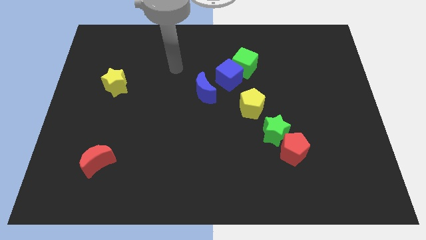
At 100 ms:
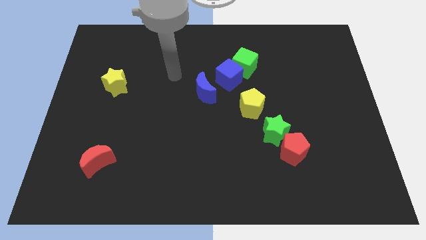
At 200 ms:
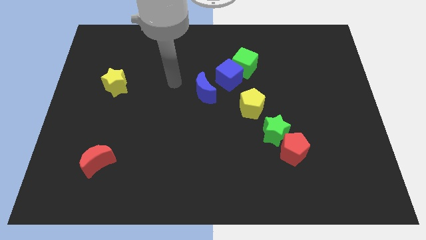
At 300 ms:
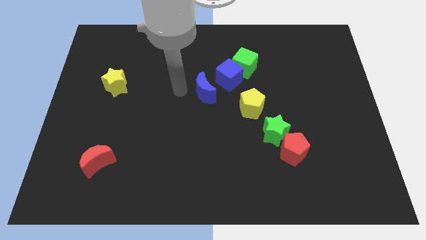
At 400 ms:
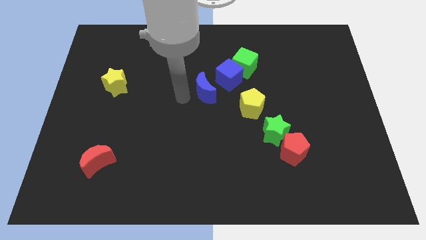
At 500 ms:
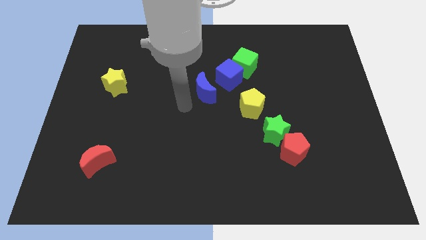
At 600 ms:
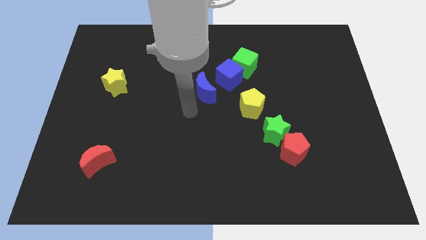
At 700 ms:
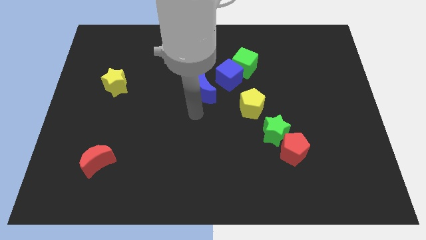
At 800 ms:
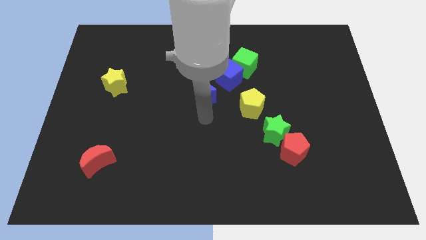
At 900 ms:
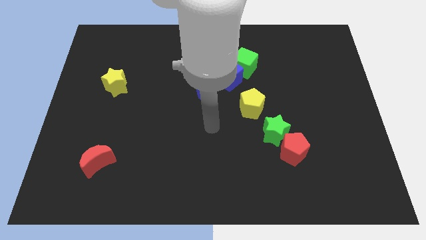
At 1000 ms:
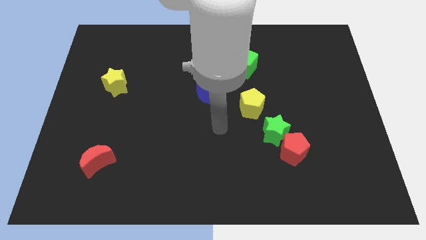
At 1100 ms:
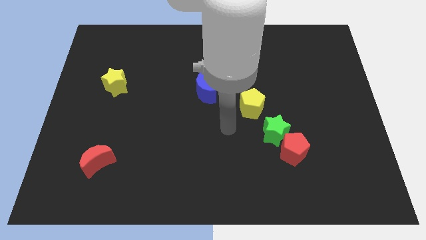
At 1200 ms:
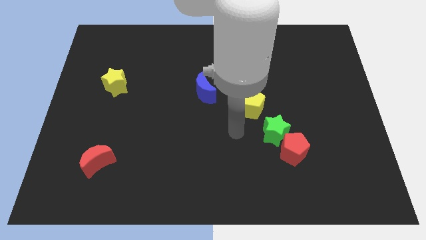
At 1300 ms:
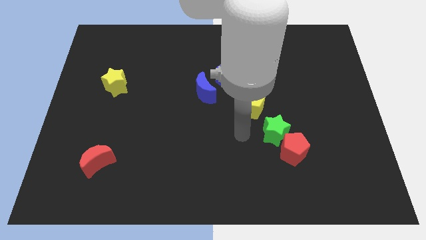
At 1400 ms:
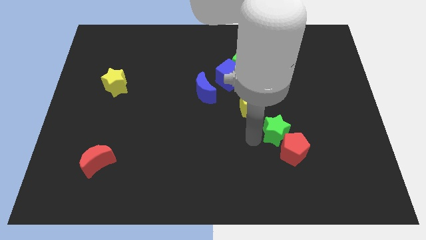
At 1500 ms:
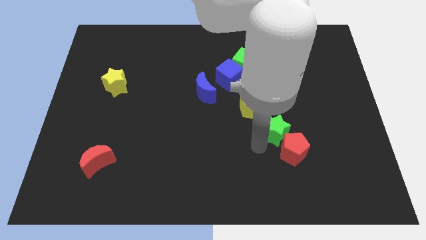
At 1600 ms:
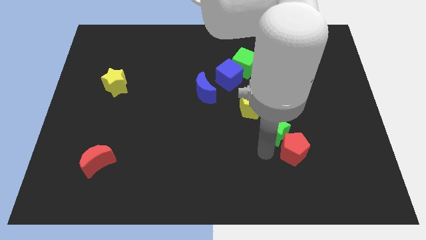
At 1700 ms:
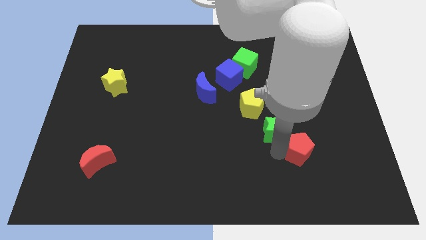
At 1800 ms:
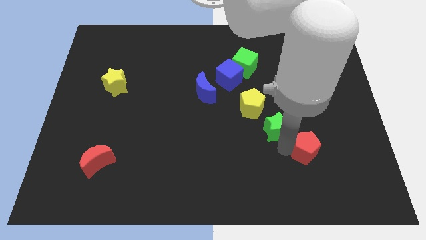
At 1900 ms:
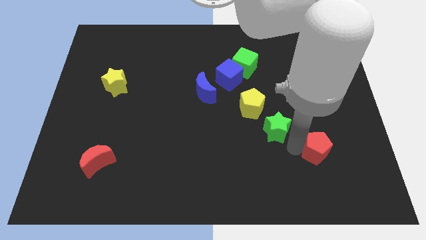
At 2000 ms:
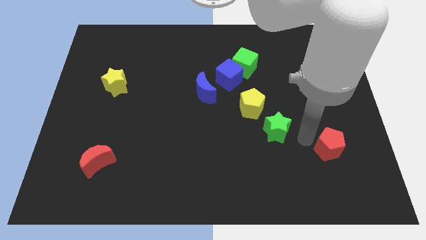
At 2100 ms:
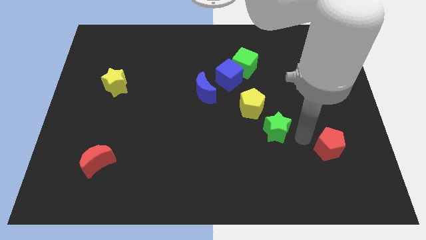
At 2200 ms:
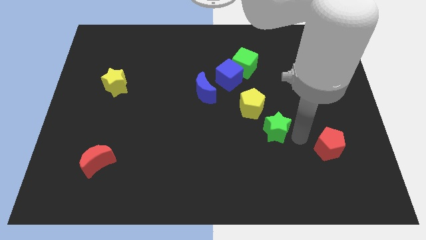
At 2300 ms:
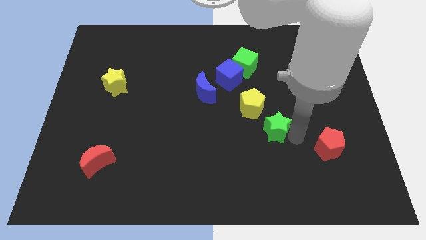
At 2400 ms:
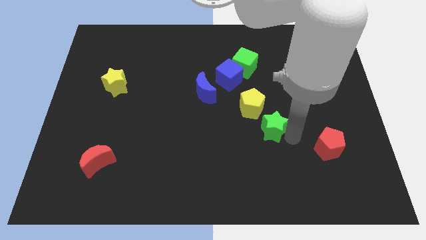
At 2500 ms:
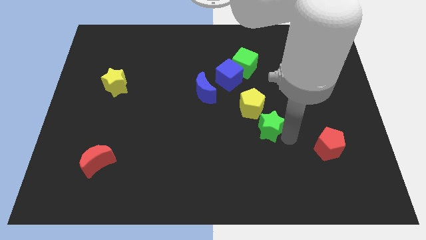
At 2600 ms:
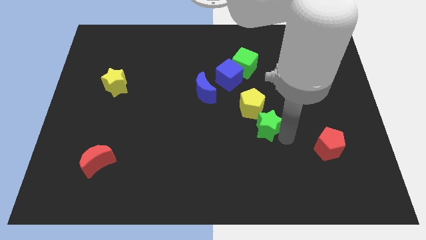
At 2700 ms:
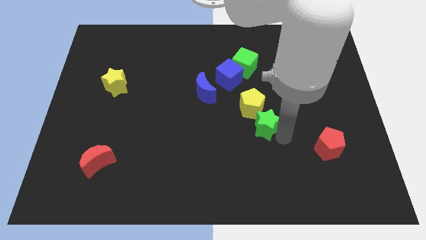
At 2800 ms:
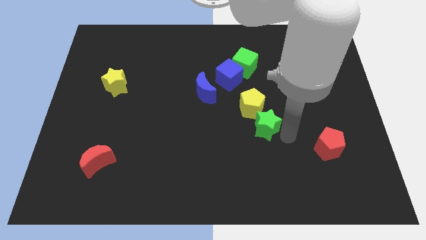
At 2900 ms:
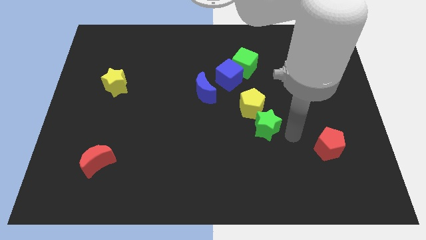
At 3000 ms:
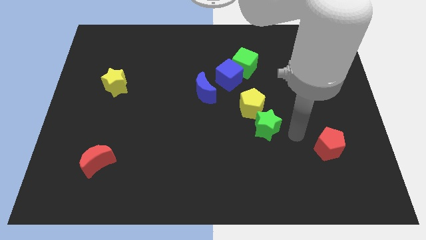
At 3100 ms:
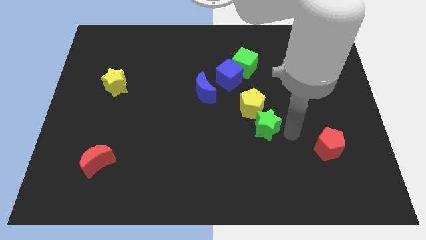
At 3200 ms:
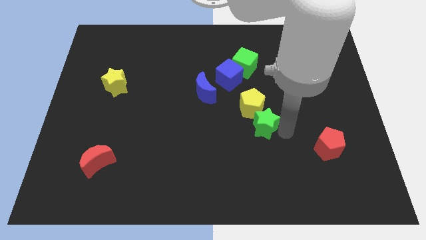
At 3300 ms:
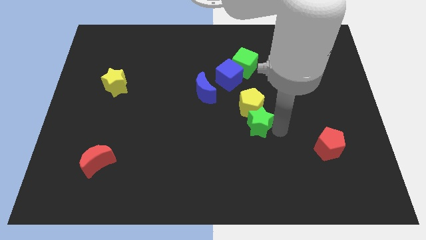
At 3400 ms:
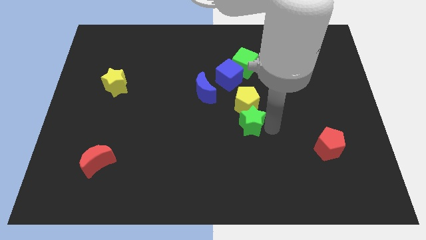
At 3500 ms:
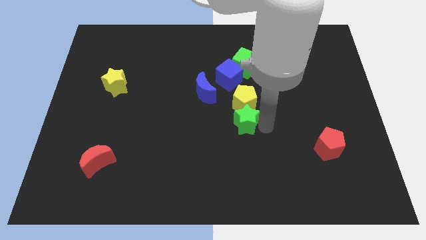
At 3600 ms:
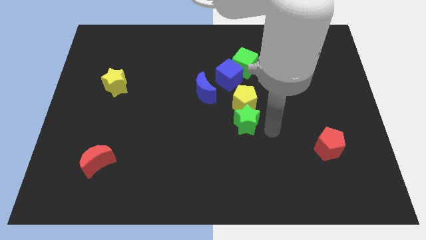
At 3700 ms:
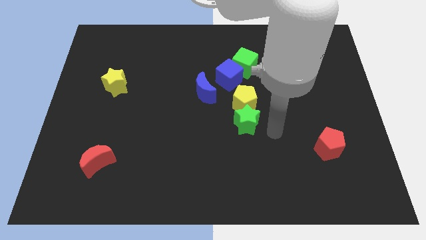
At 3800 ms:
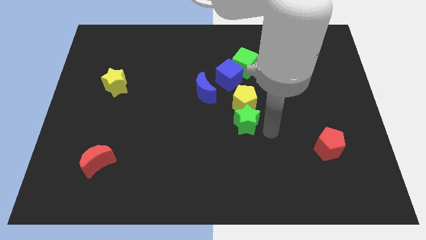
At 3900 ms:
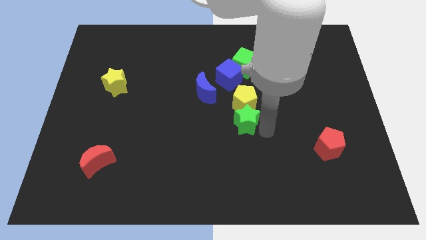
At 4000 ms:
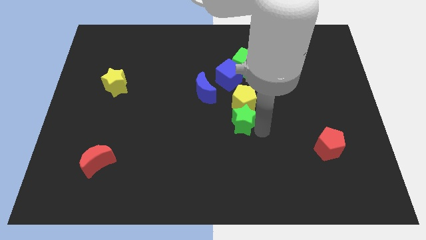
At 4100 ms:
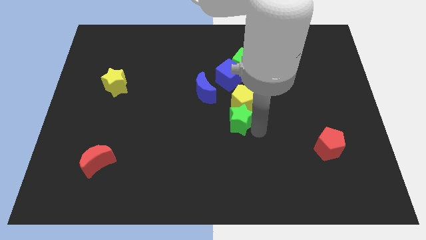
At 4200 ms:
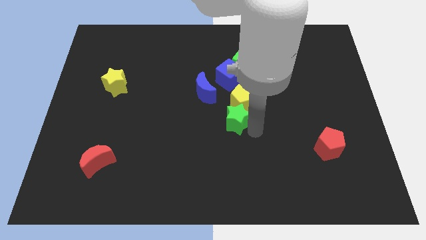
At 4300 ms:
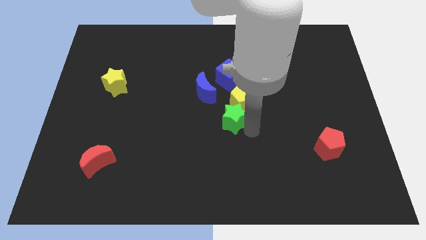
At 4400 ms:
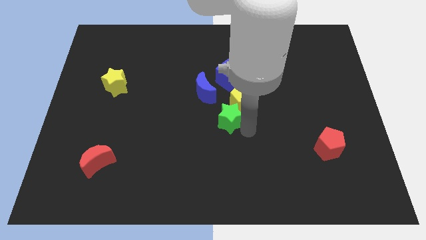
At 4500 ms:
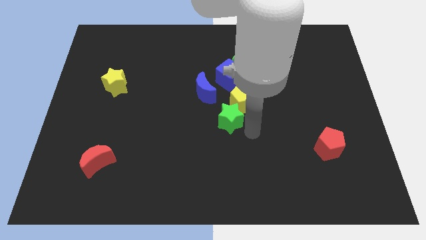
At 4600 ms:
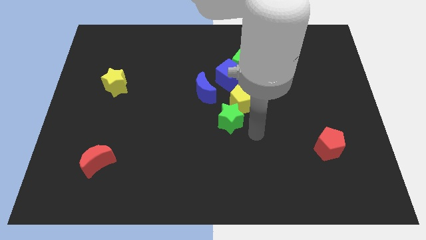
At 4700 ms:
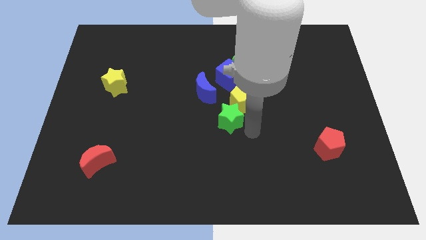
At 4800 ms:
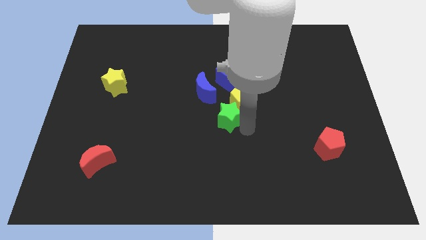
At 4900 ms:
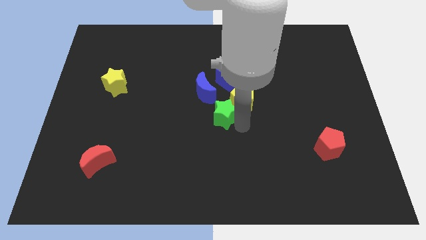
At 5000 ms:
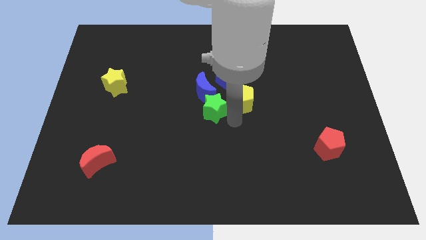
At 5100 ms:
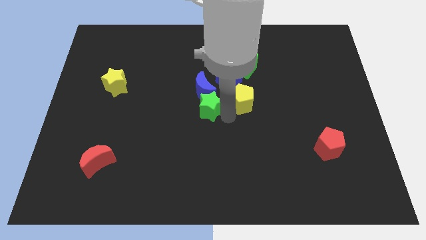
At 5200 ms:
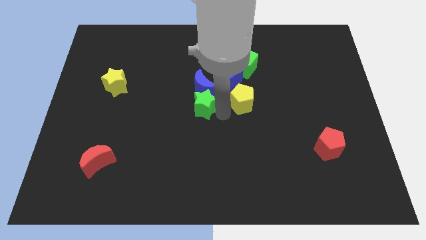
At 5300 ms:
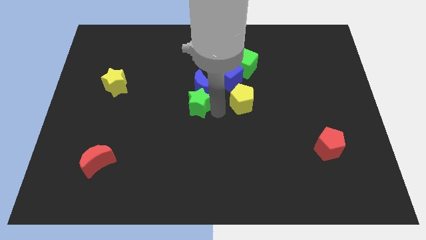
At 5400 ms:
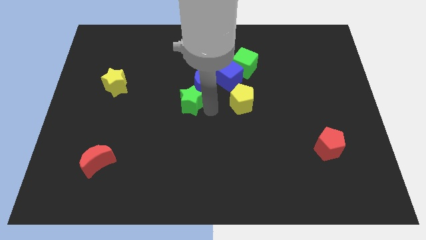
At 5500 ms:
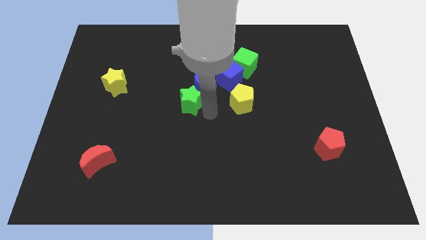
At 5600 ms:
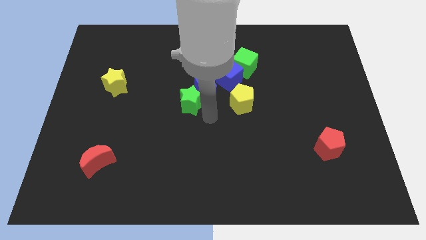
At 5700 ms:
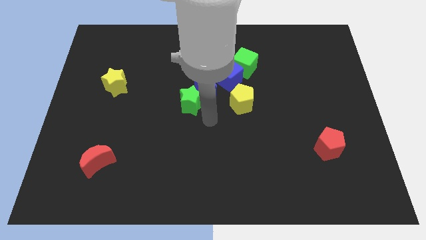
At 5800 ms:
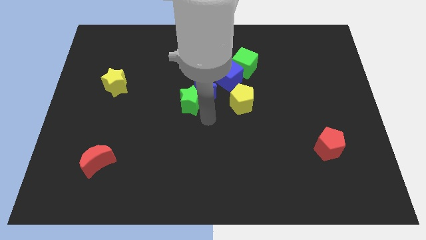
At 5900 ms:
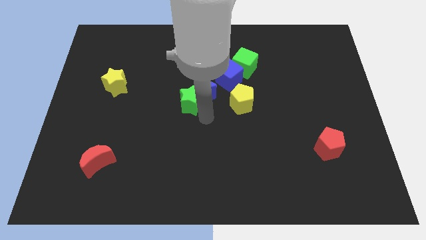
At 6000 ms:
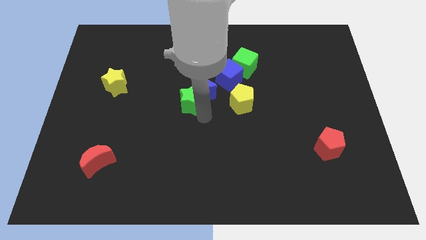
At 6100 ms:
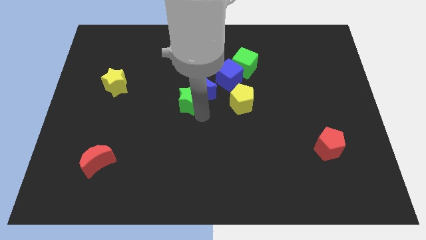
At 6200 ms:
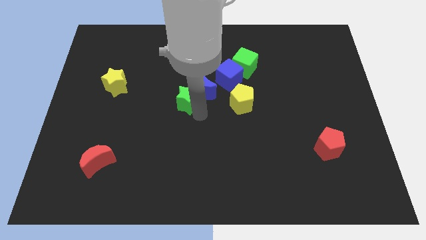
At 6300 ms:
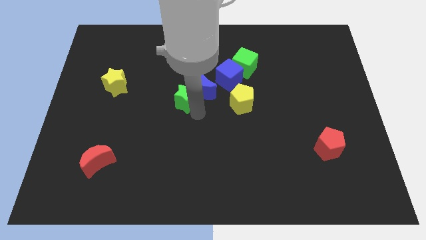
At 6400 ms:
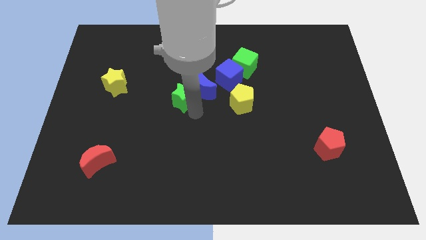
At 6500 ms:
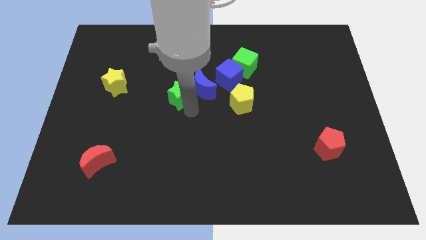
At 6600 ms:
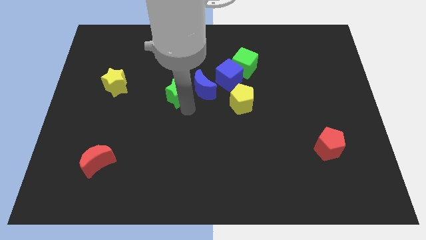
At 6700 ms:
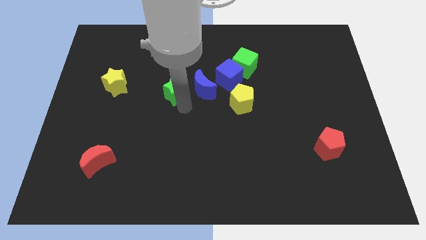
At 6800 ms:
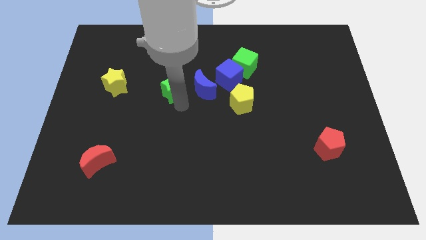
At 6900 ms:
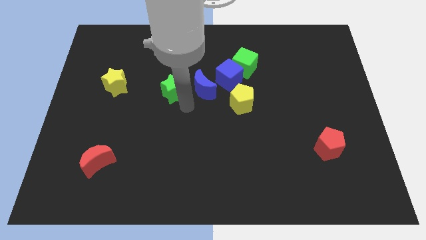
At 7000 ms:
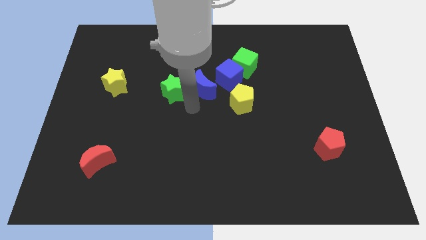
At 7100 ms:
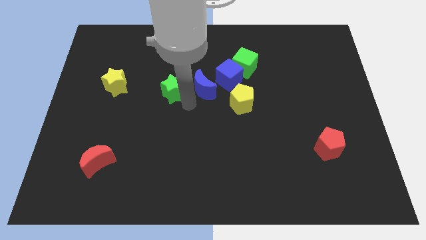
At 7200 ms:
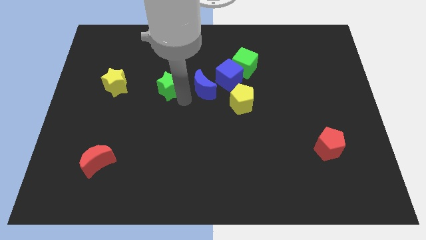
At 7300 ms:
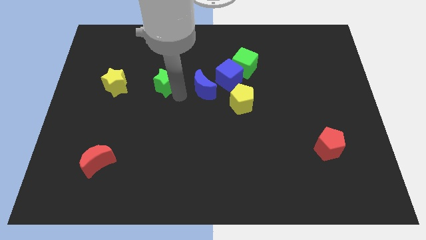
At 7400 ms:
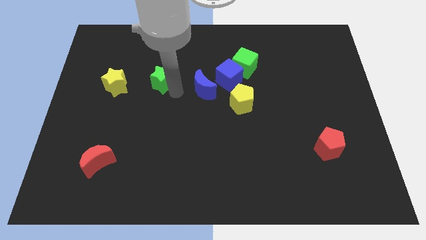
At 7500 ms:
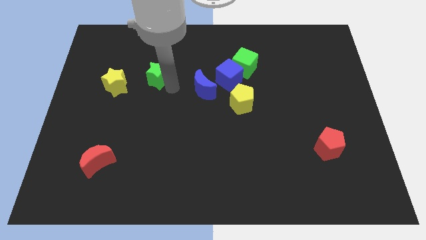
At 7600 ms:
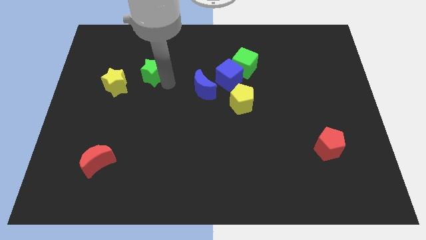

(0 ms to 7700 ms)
move the green star to the top right side of the yellow star

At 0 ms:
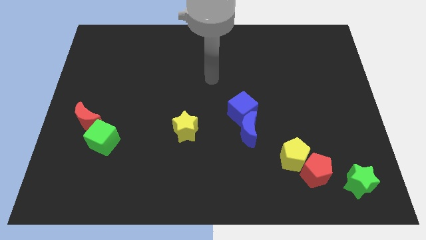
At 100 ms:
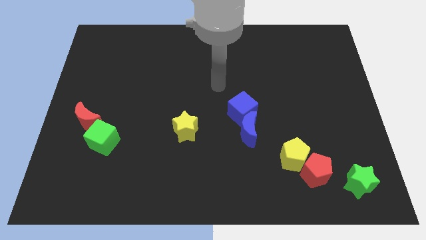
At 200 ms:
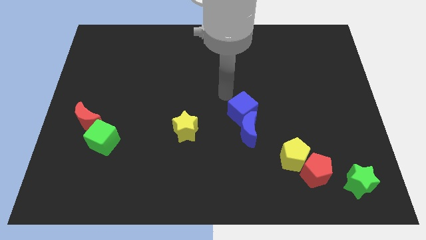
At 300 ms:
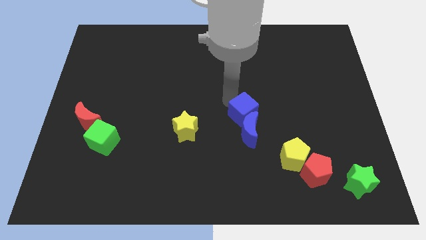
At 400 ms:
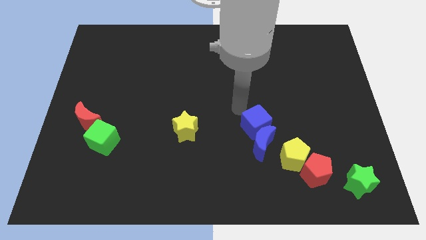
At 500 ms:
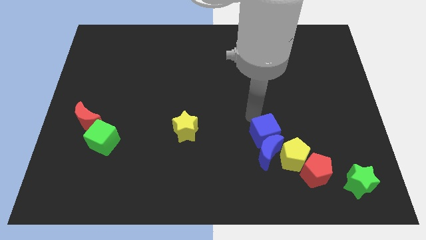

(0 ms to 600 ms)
move the blue moon just left of the red pentagon
